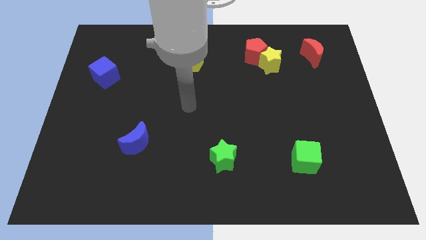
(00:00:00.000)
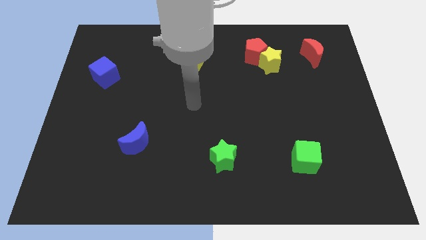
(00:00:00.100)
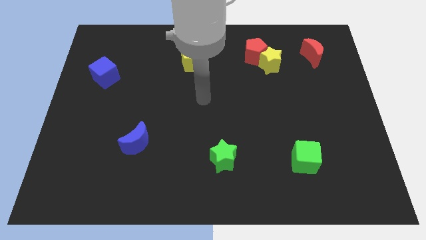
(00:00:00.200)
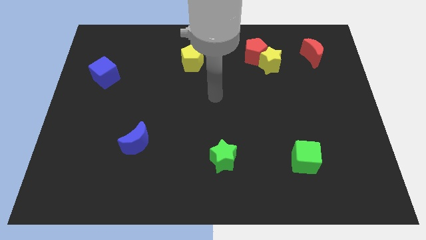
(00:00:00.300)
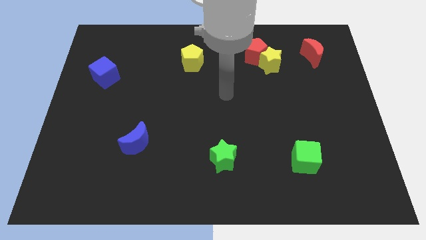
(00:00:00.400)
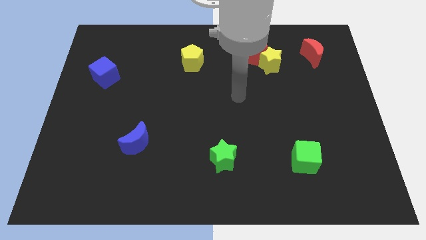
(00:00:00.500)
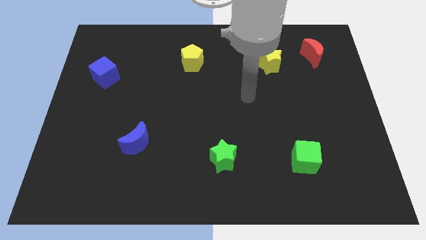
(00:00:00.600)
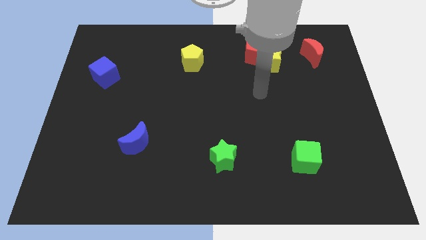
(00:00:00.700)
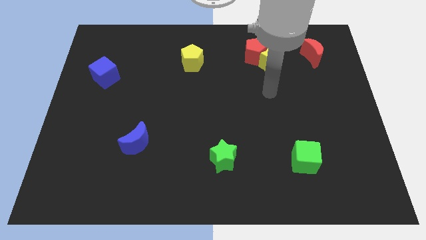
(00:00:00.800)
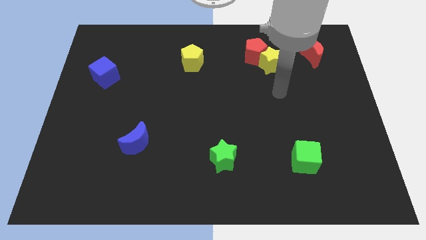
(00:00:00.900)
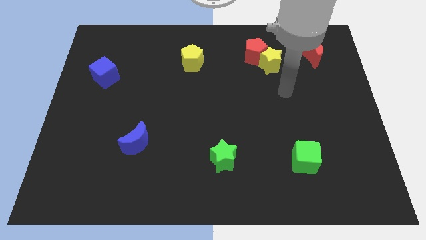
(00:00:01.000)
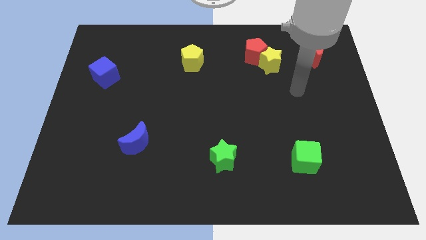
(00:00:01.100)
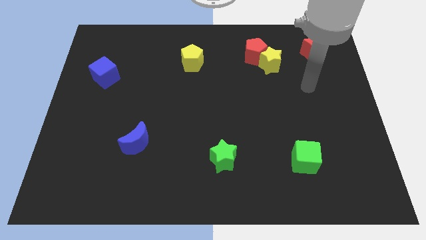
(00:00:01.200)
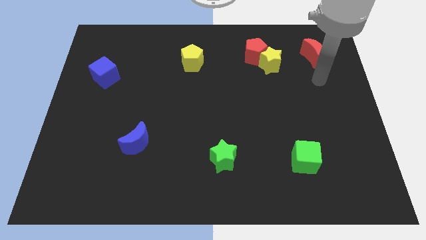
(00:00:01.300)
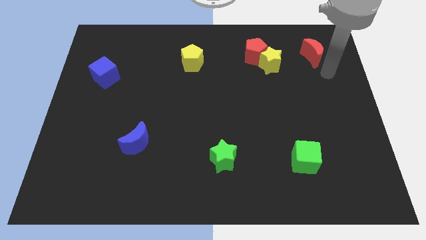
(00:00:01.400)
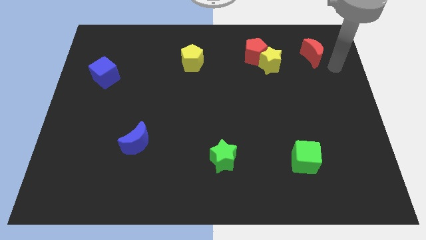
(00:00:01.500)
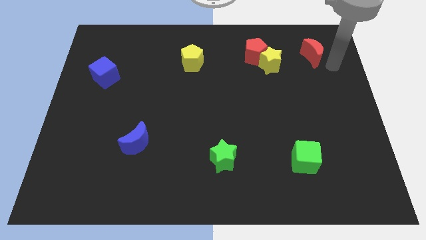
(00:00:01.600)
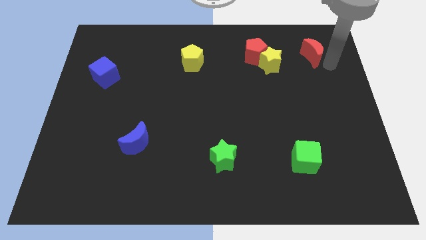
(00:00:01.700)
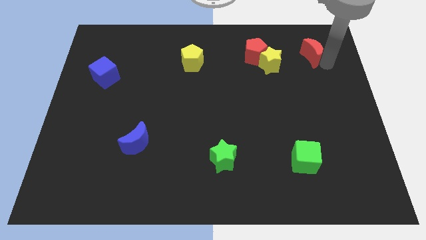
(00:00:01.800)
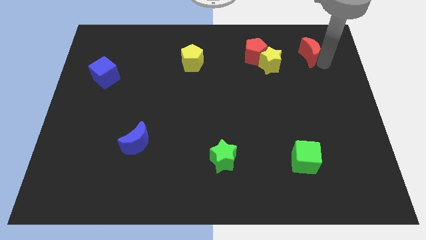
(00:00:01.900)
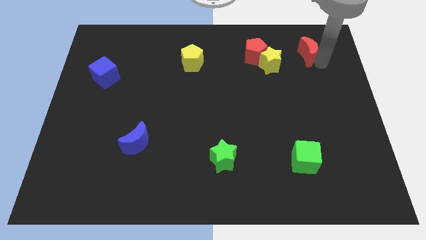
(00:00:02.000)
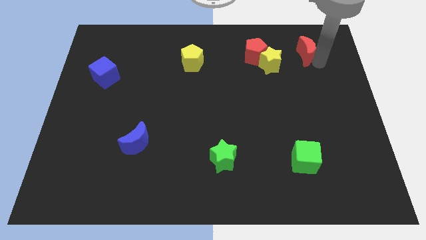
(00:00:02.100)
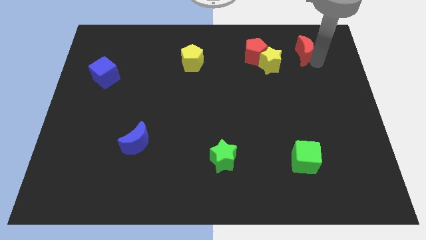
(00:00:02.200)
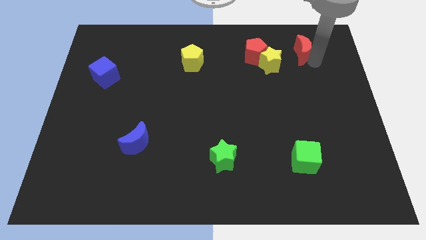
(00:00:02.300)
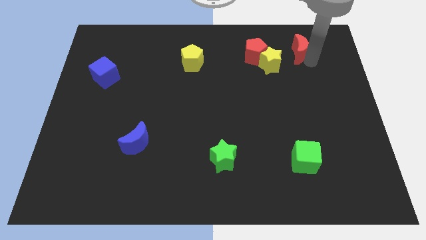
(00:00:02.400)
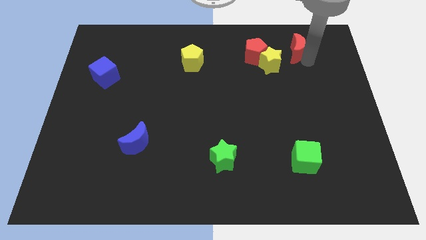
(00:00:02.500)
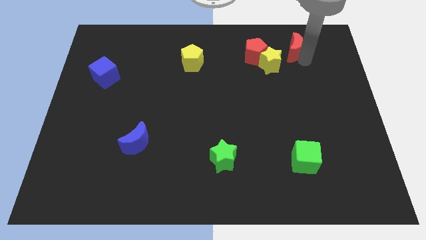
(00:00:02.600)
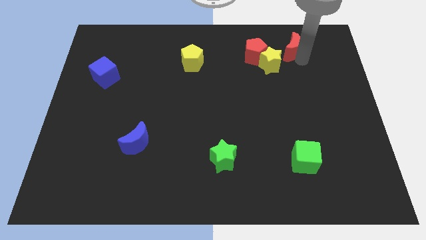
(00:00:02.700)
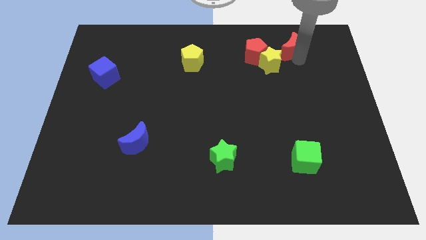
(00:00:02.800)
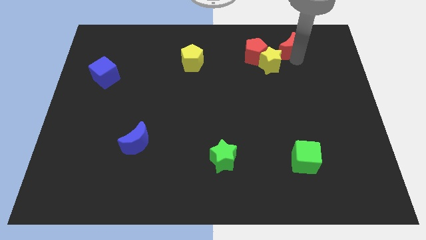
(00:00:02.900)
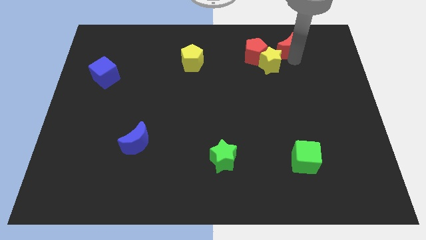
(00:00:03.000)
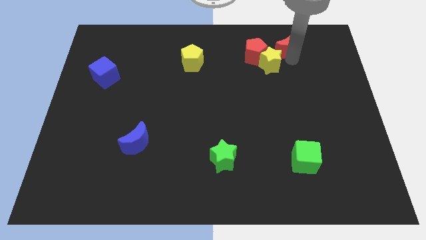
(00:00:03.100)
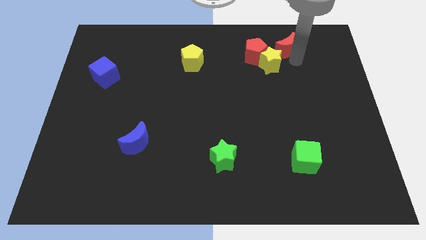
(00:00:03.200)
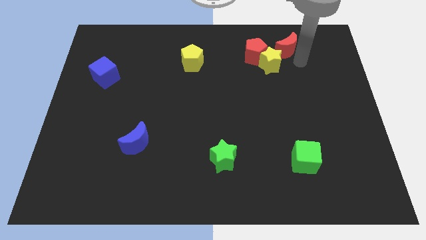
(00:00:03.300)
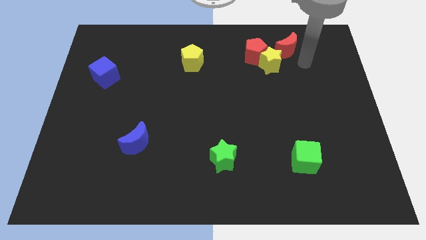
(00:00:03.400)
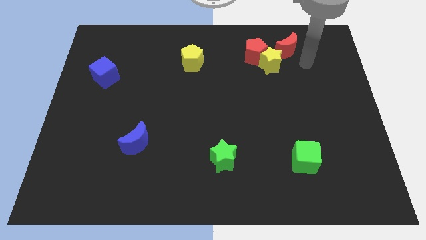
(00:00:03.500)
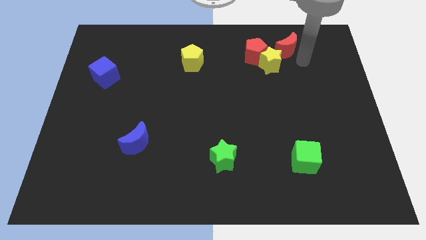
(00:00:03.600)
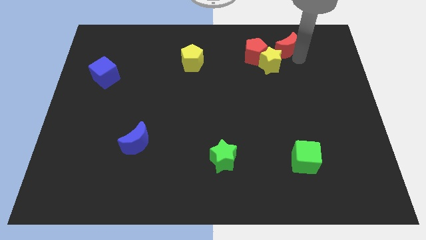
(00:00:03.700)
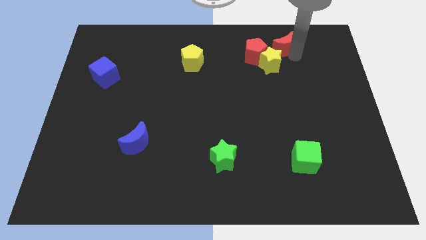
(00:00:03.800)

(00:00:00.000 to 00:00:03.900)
slightly push the red moon left

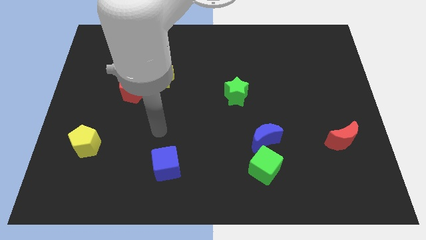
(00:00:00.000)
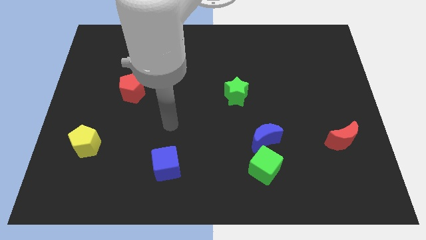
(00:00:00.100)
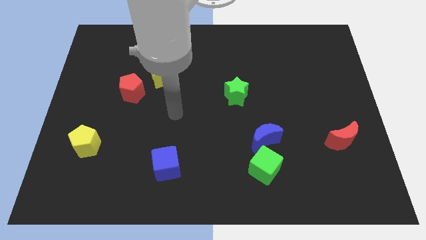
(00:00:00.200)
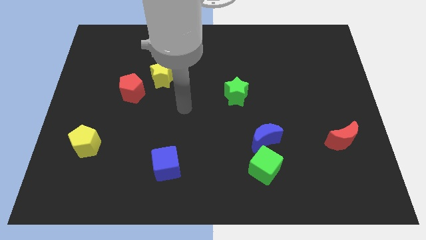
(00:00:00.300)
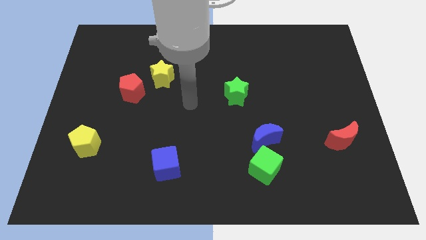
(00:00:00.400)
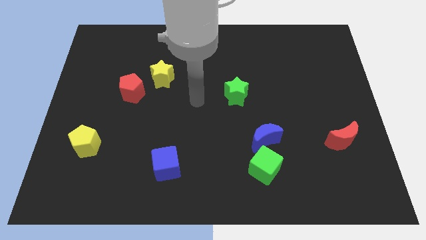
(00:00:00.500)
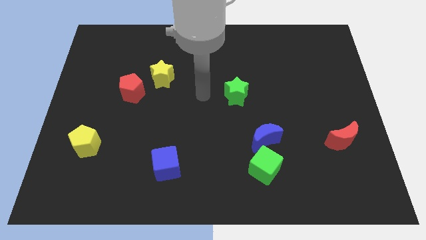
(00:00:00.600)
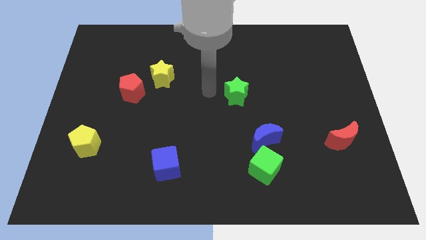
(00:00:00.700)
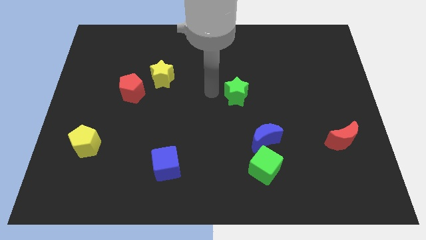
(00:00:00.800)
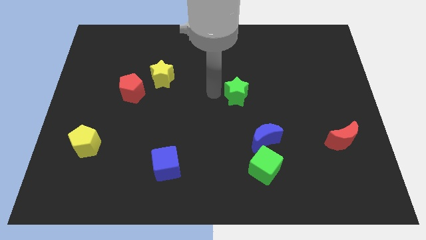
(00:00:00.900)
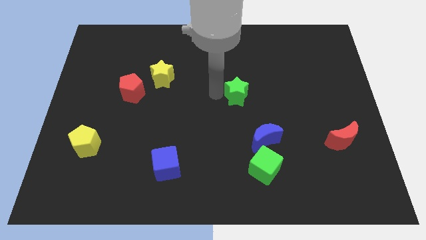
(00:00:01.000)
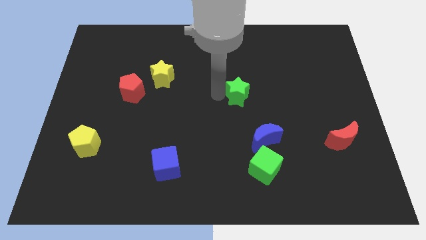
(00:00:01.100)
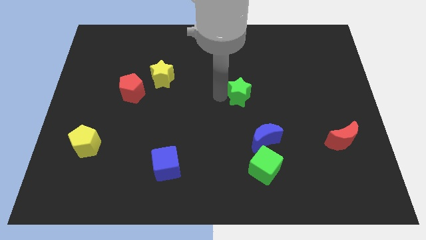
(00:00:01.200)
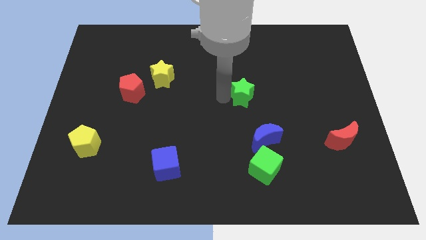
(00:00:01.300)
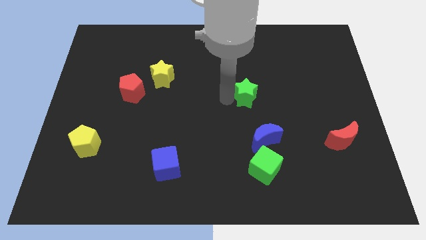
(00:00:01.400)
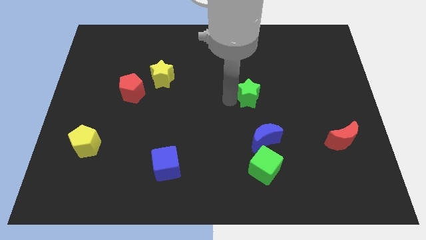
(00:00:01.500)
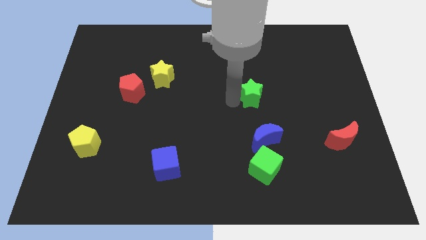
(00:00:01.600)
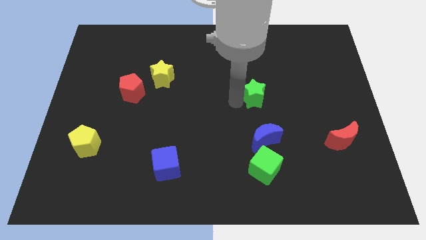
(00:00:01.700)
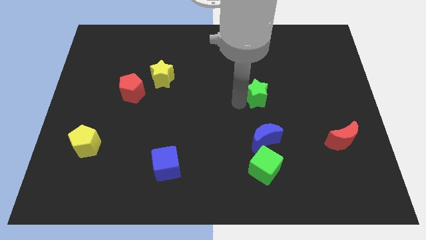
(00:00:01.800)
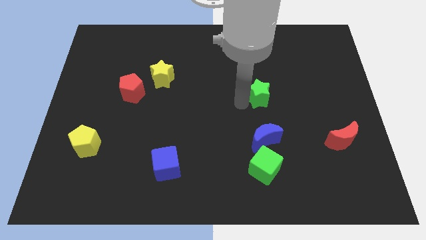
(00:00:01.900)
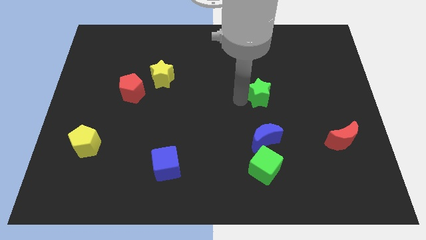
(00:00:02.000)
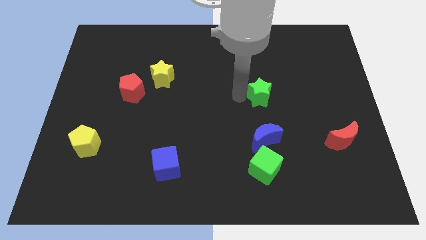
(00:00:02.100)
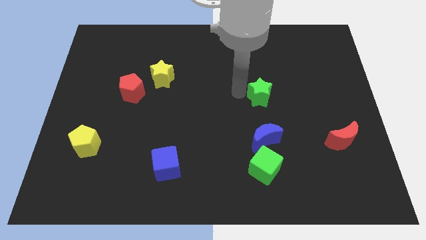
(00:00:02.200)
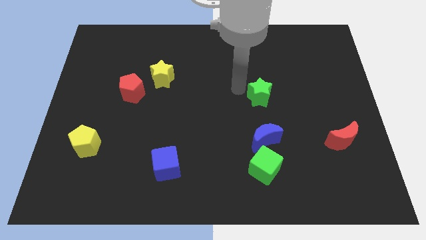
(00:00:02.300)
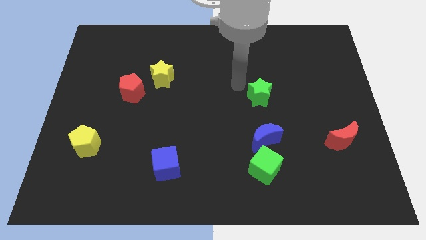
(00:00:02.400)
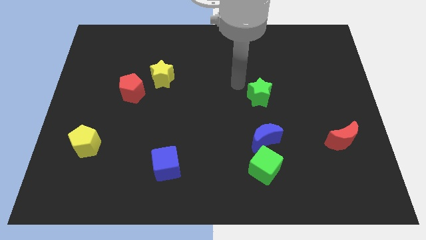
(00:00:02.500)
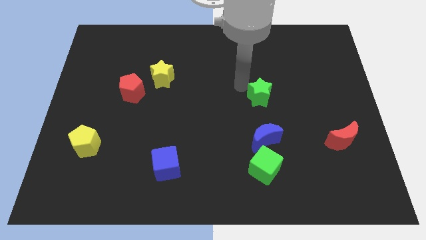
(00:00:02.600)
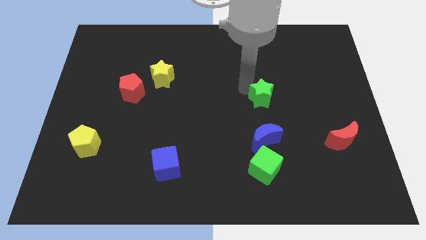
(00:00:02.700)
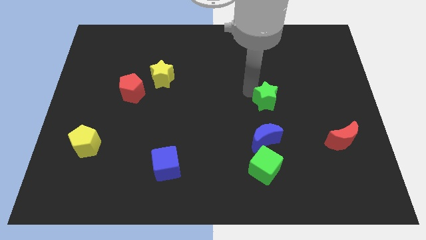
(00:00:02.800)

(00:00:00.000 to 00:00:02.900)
slightly push the green star to the right

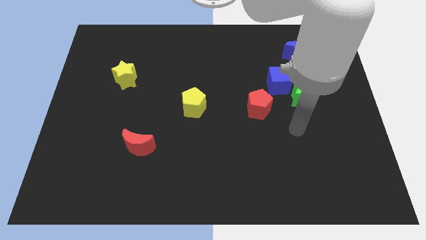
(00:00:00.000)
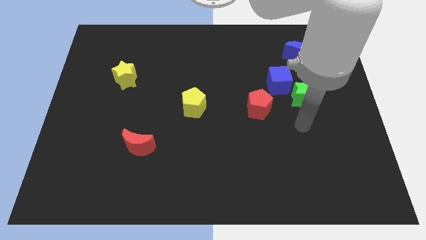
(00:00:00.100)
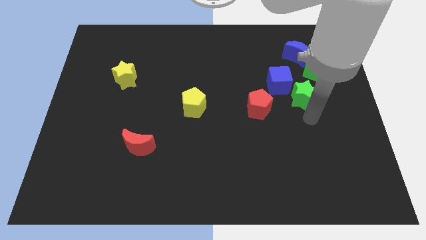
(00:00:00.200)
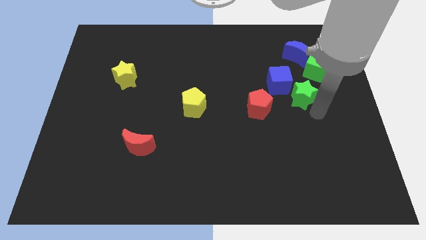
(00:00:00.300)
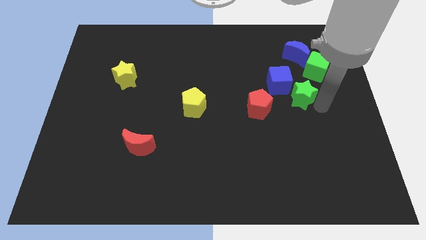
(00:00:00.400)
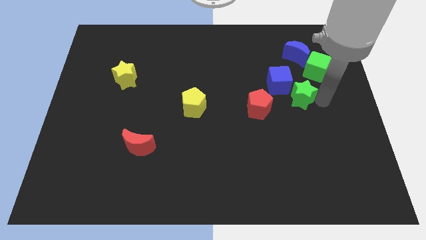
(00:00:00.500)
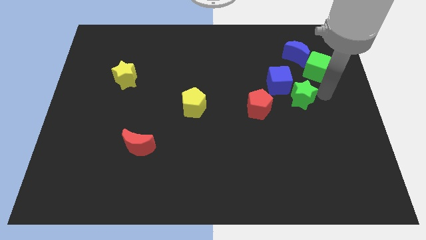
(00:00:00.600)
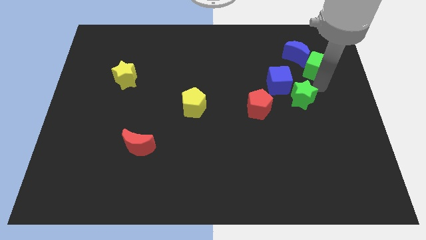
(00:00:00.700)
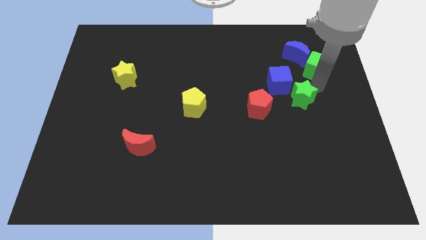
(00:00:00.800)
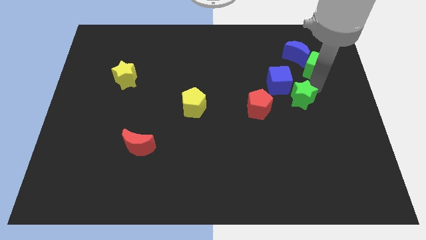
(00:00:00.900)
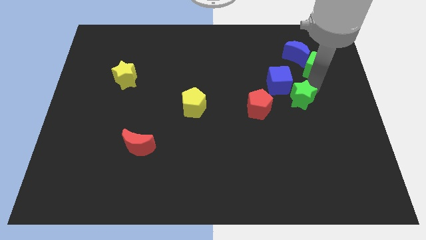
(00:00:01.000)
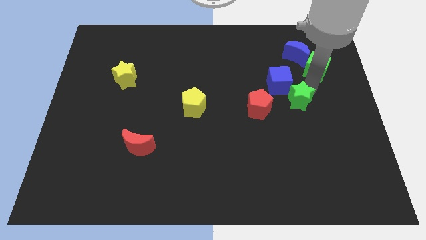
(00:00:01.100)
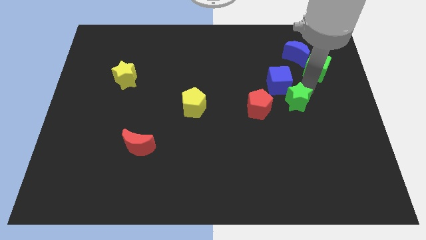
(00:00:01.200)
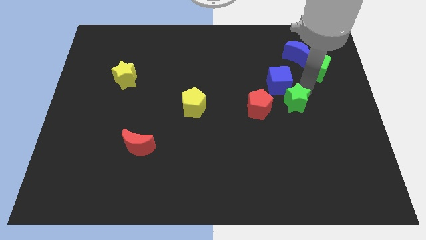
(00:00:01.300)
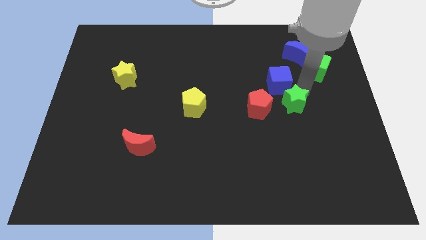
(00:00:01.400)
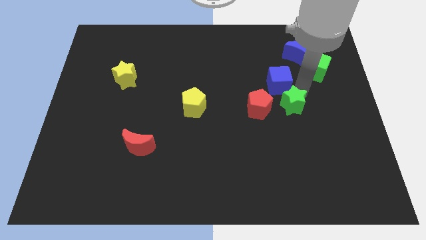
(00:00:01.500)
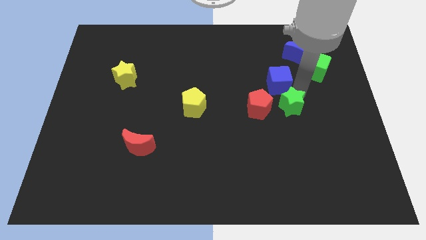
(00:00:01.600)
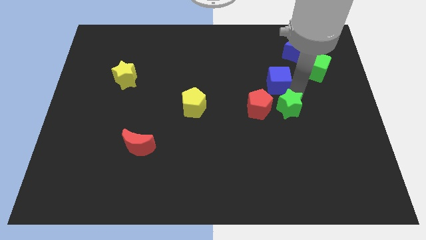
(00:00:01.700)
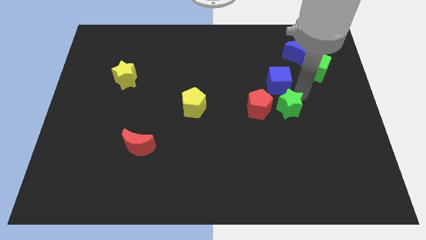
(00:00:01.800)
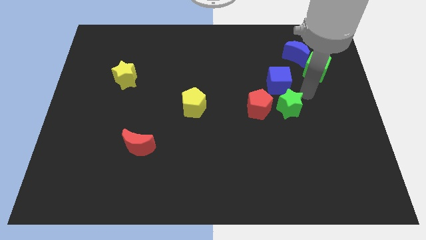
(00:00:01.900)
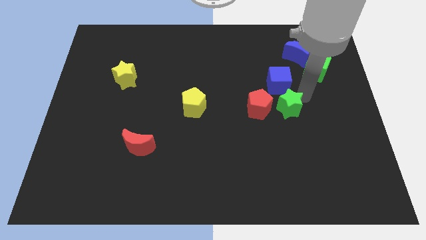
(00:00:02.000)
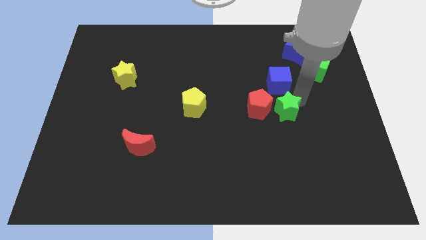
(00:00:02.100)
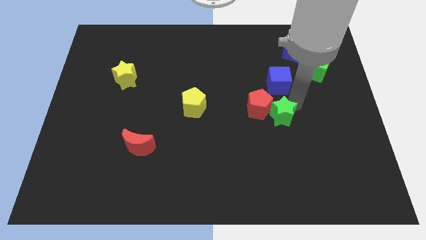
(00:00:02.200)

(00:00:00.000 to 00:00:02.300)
slide the green star downwards and then left slightly
